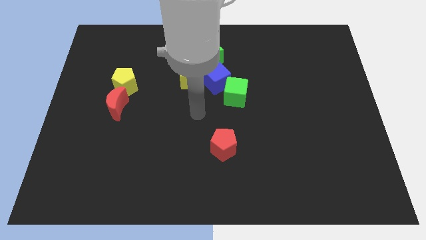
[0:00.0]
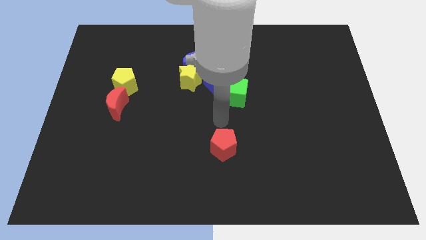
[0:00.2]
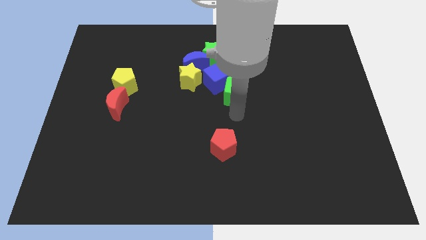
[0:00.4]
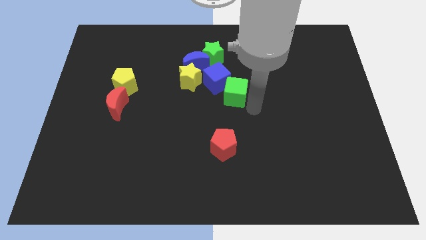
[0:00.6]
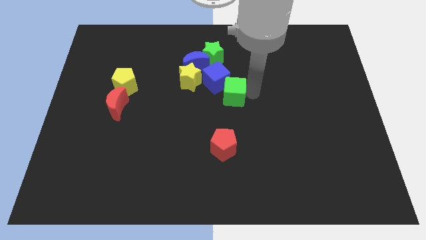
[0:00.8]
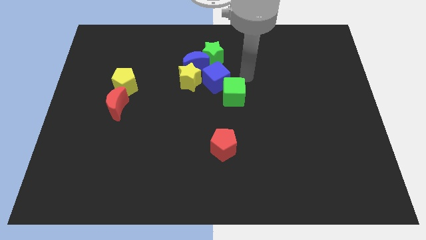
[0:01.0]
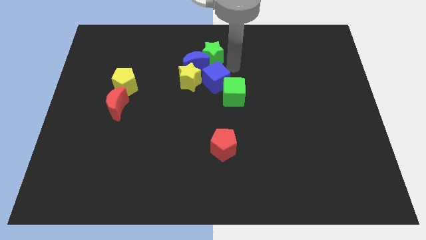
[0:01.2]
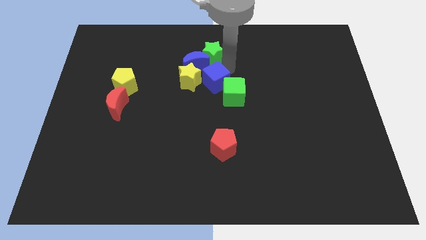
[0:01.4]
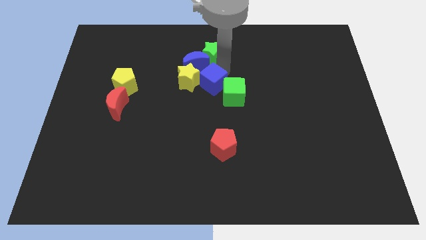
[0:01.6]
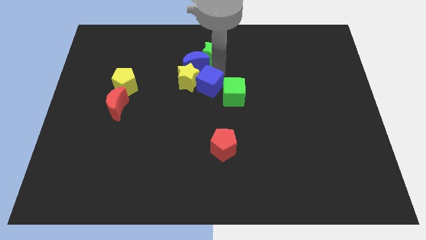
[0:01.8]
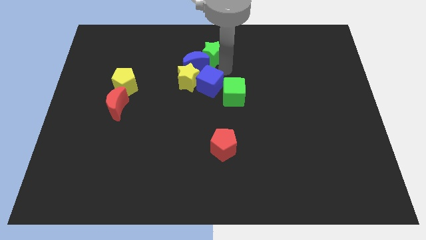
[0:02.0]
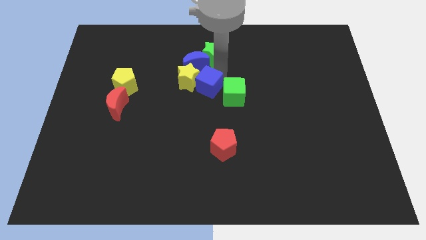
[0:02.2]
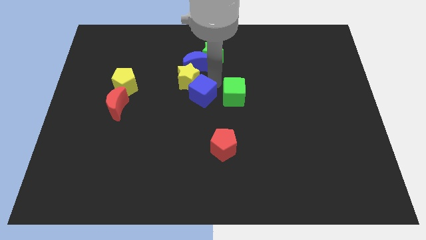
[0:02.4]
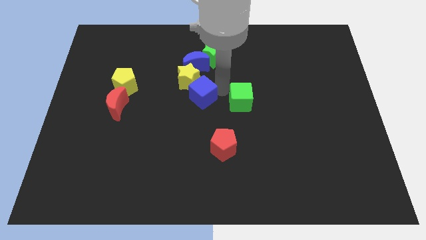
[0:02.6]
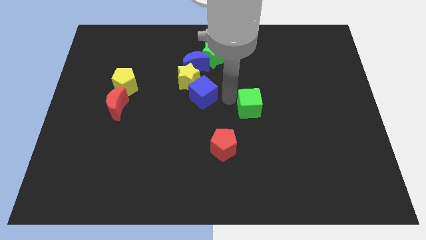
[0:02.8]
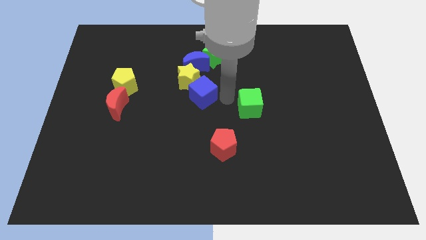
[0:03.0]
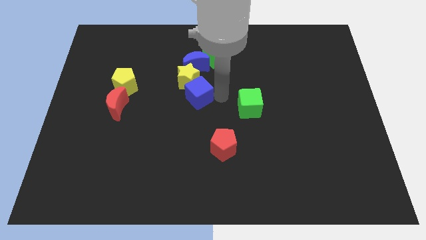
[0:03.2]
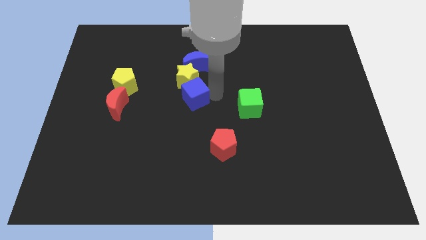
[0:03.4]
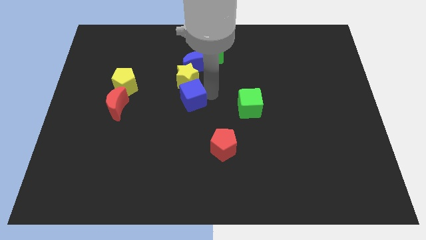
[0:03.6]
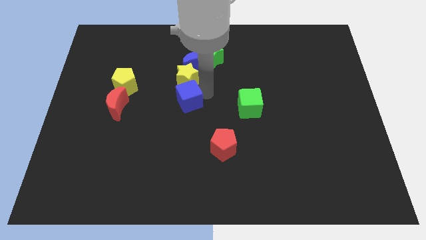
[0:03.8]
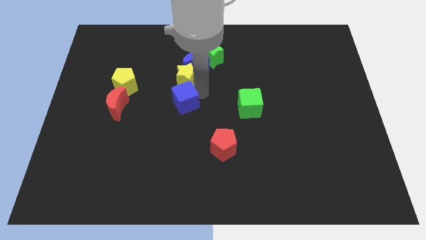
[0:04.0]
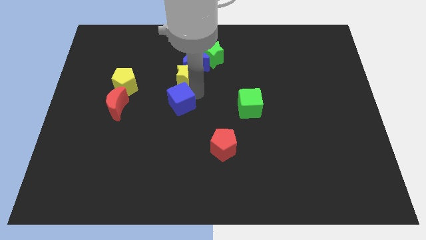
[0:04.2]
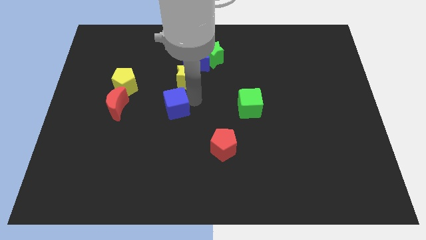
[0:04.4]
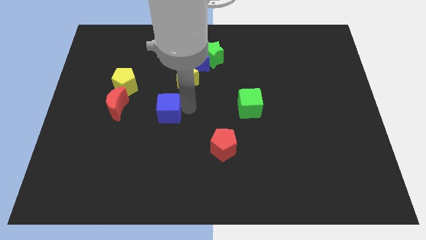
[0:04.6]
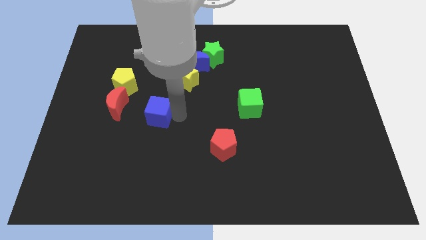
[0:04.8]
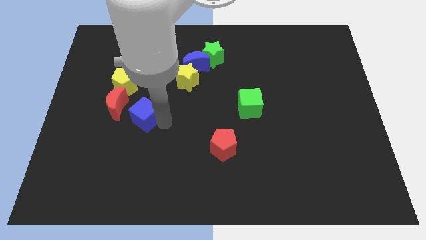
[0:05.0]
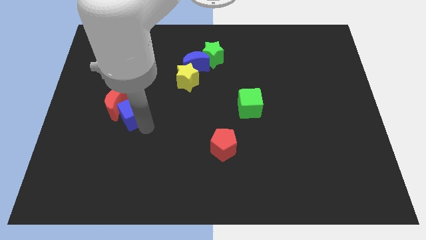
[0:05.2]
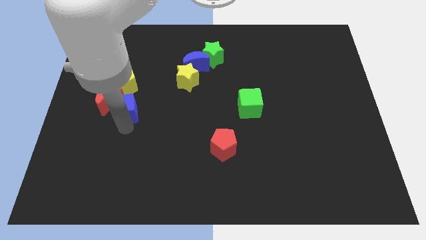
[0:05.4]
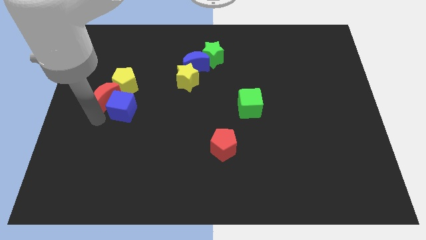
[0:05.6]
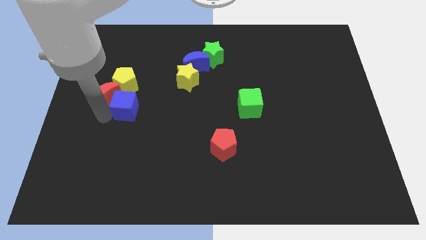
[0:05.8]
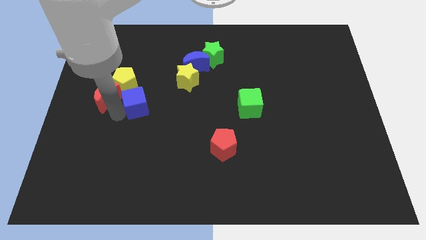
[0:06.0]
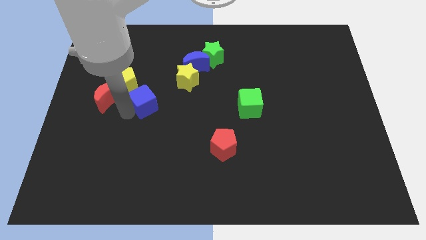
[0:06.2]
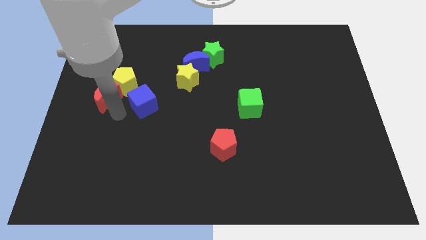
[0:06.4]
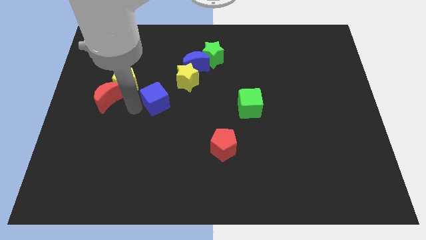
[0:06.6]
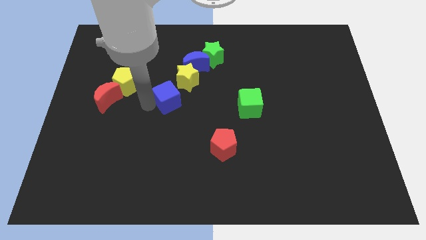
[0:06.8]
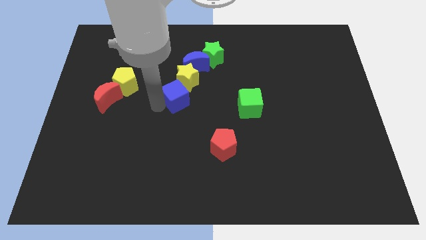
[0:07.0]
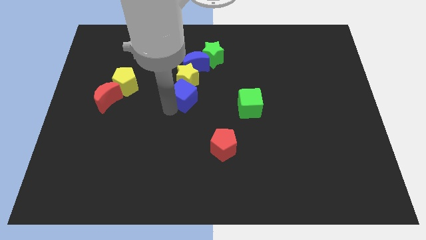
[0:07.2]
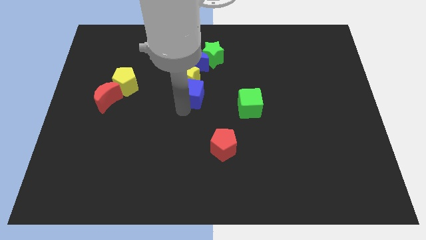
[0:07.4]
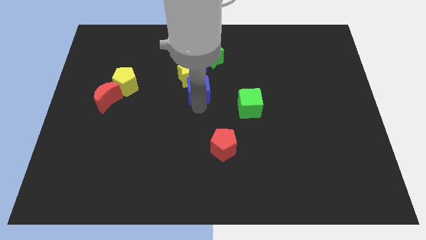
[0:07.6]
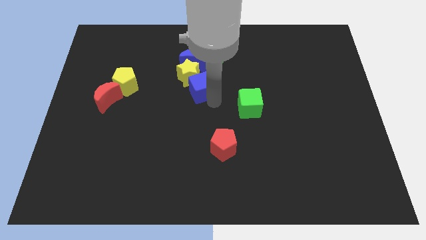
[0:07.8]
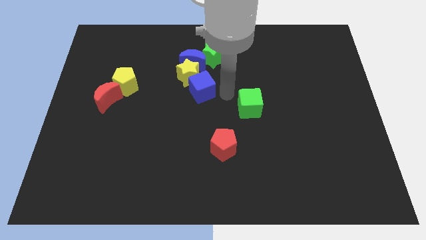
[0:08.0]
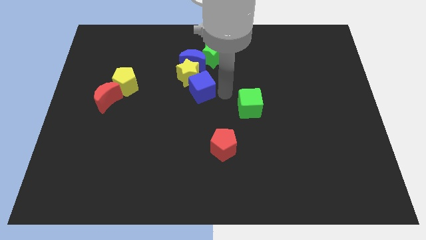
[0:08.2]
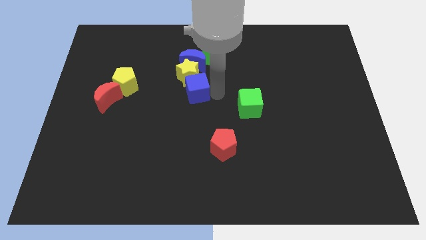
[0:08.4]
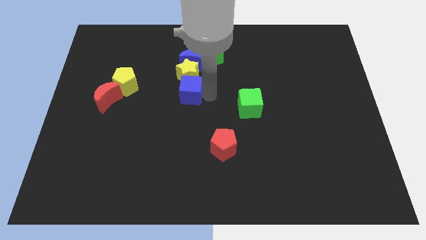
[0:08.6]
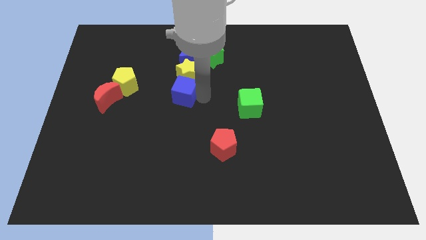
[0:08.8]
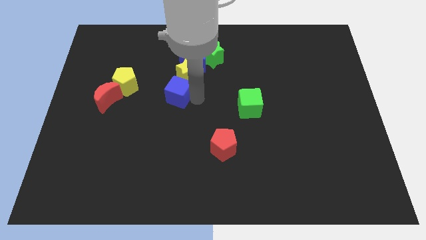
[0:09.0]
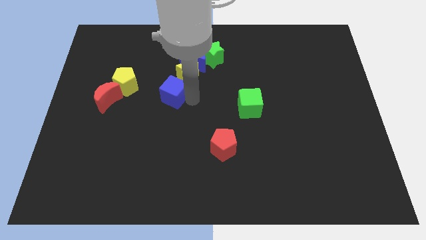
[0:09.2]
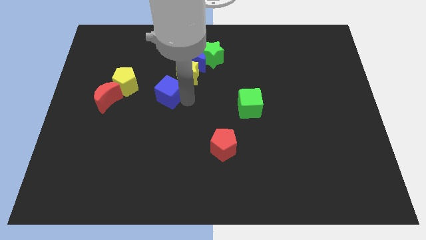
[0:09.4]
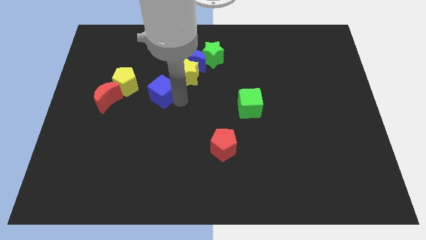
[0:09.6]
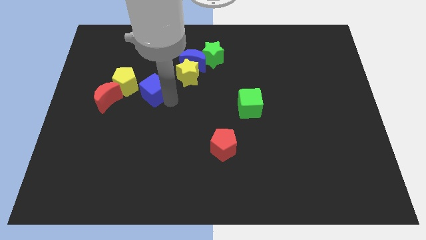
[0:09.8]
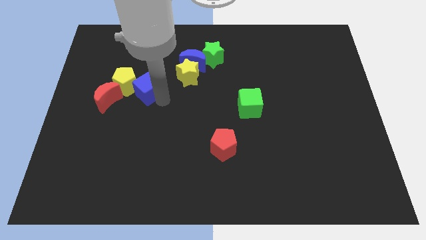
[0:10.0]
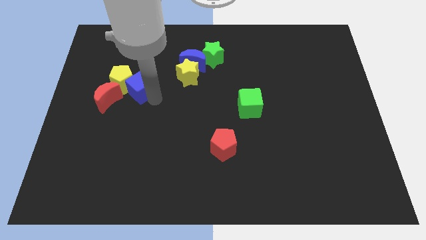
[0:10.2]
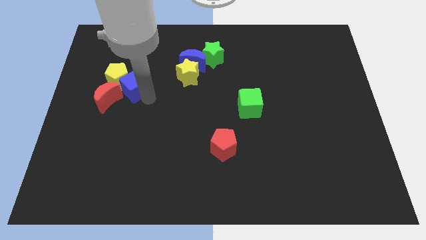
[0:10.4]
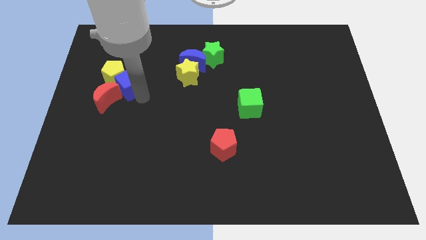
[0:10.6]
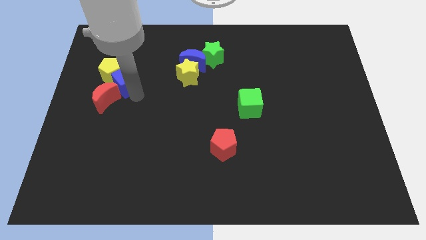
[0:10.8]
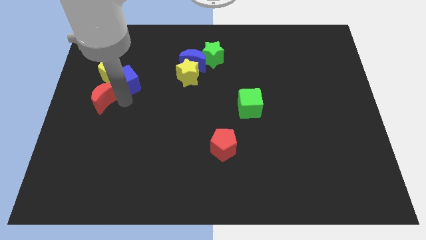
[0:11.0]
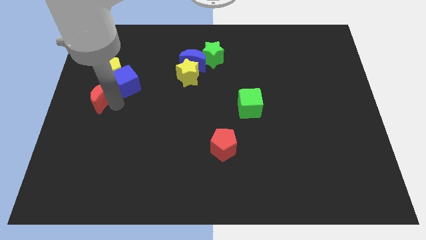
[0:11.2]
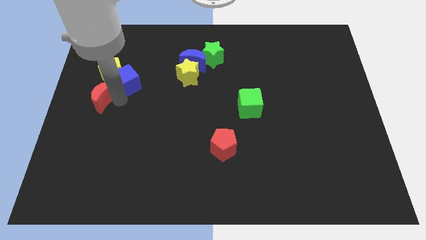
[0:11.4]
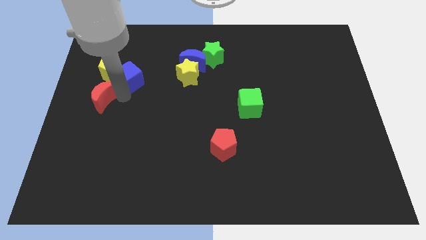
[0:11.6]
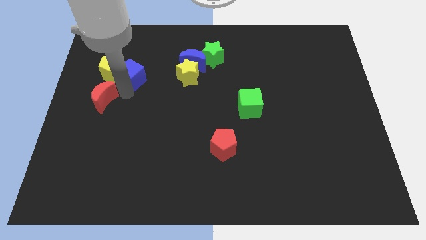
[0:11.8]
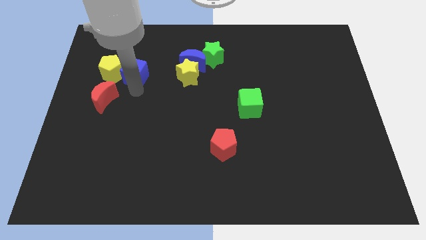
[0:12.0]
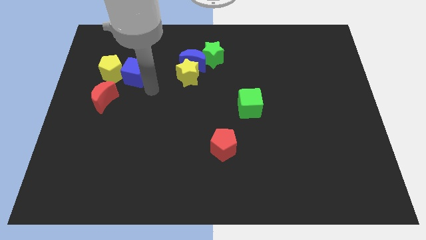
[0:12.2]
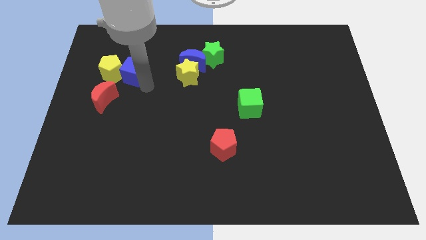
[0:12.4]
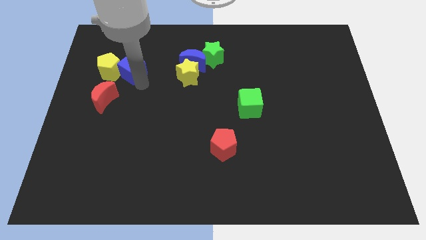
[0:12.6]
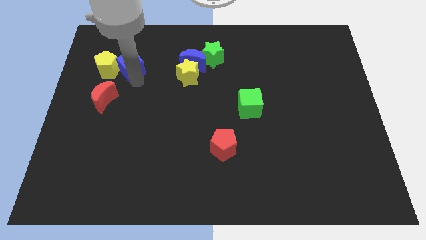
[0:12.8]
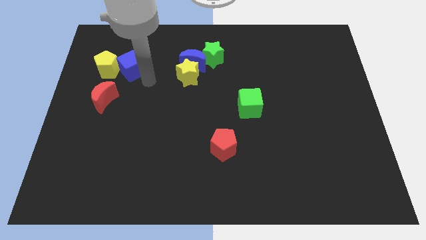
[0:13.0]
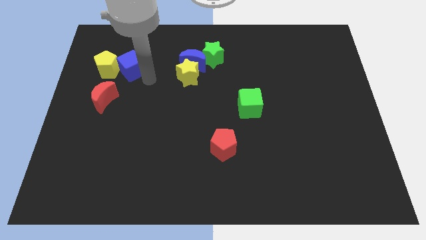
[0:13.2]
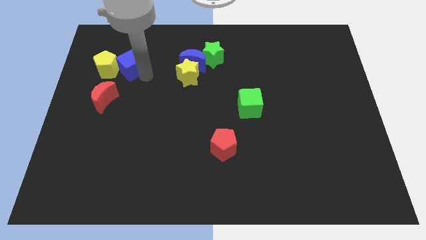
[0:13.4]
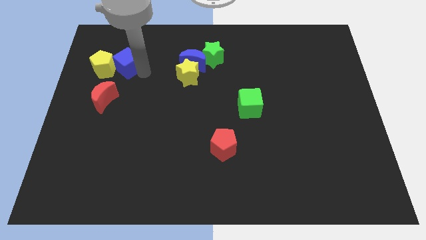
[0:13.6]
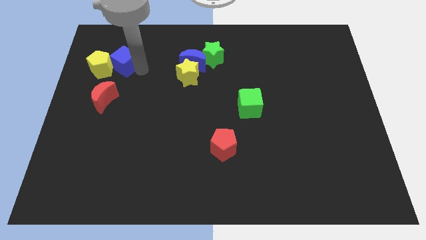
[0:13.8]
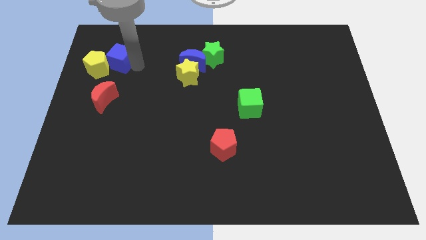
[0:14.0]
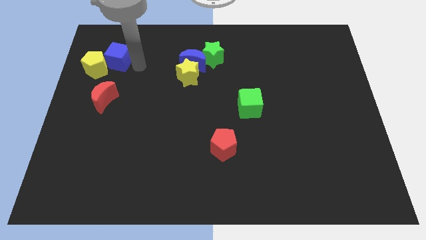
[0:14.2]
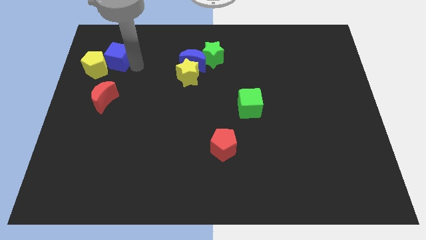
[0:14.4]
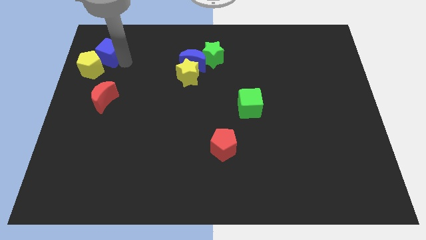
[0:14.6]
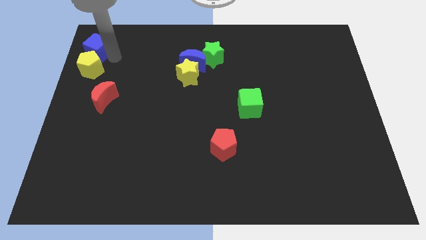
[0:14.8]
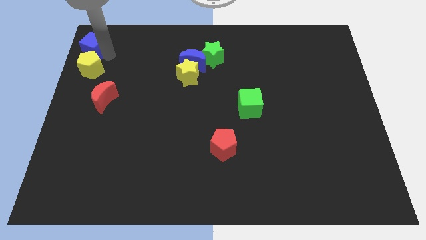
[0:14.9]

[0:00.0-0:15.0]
put the blue cube to the top left
